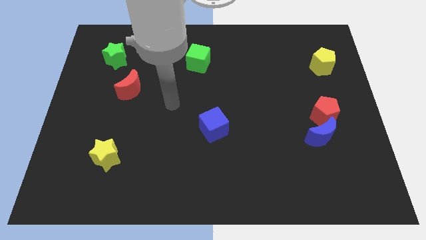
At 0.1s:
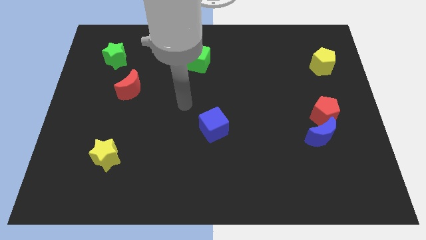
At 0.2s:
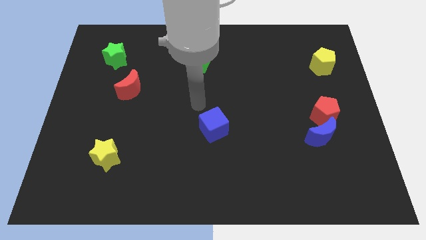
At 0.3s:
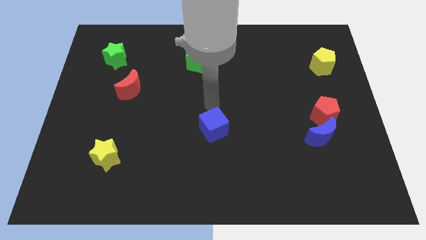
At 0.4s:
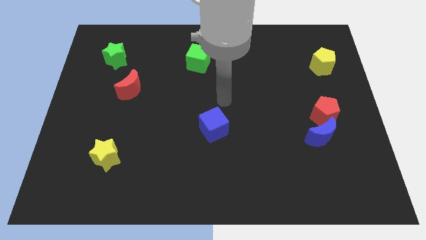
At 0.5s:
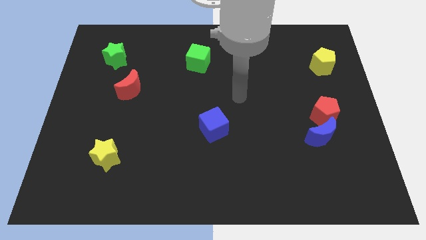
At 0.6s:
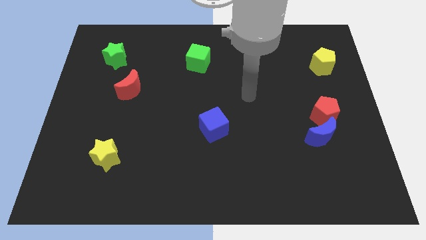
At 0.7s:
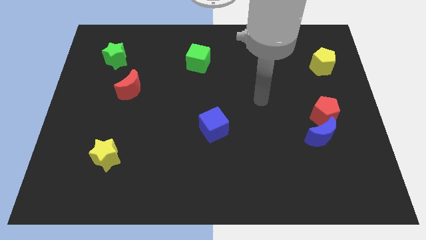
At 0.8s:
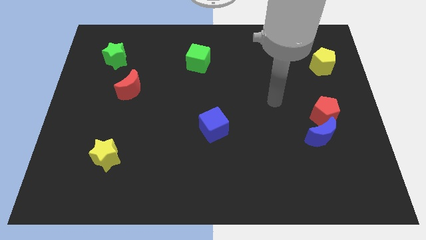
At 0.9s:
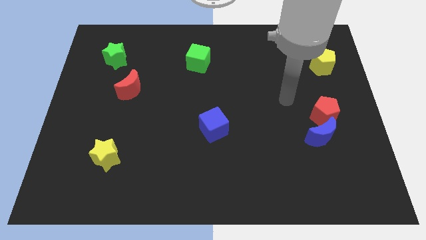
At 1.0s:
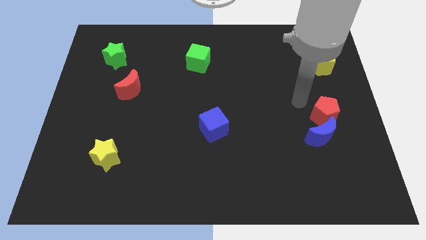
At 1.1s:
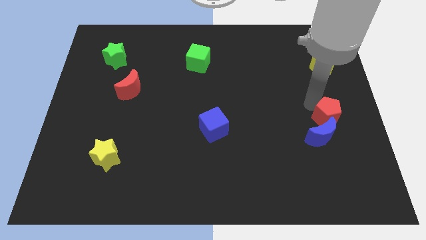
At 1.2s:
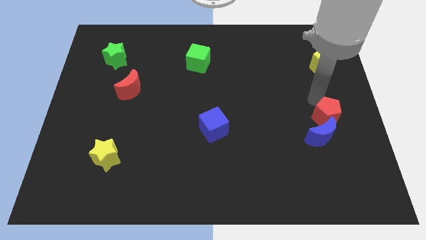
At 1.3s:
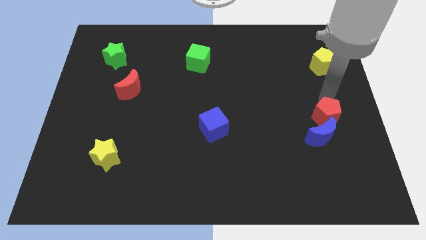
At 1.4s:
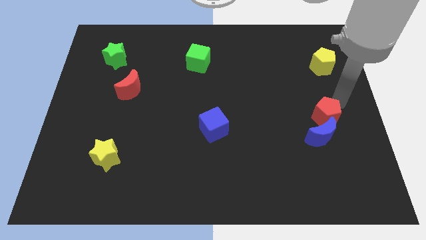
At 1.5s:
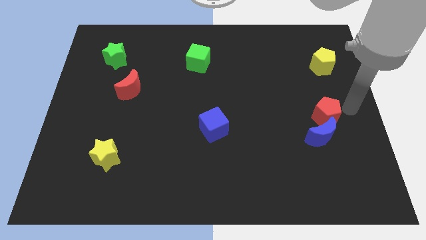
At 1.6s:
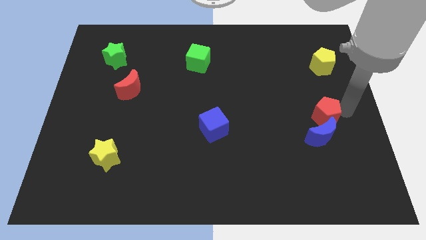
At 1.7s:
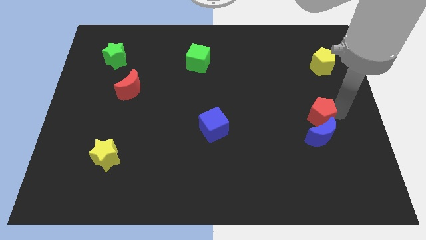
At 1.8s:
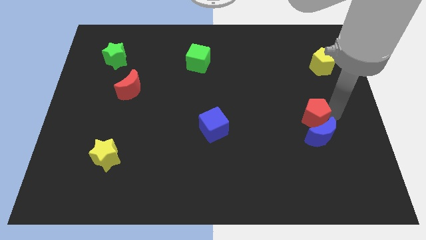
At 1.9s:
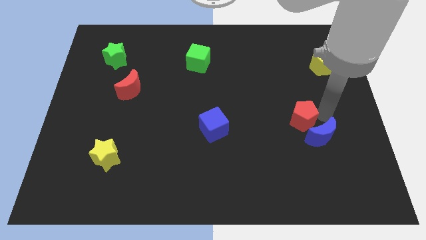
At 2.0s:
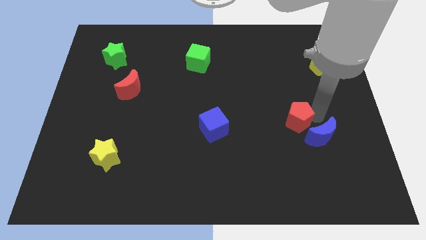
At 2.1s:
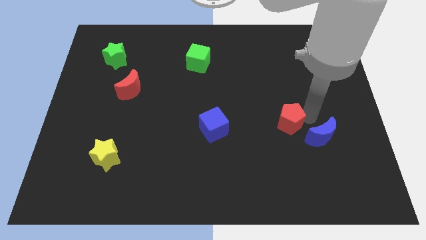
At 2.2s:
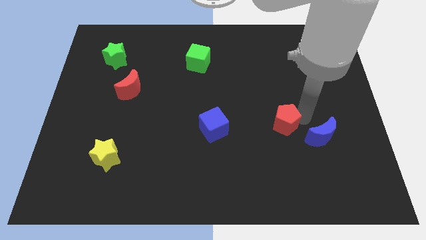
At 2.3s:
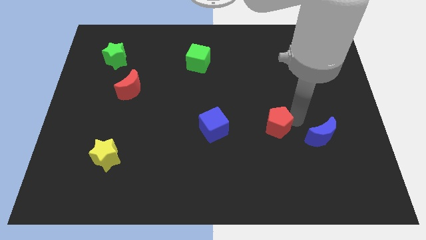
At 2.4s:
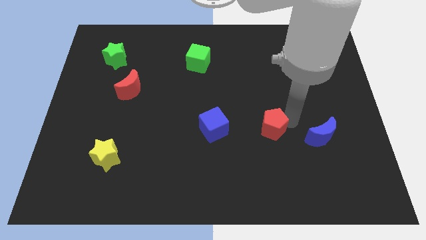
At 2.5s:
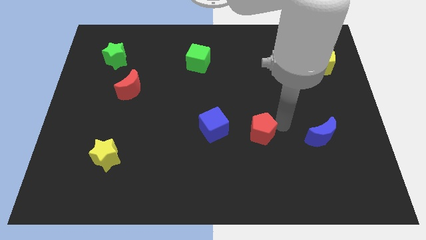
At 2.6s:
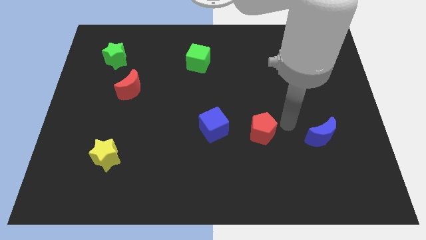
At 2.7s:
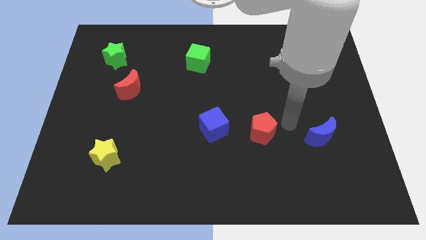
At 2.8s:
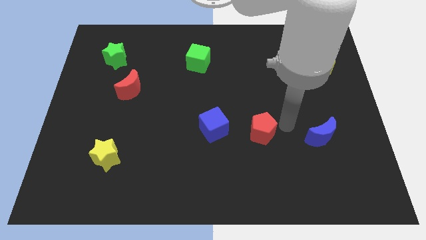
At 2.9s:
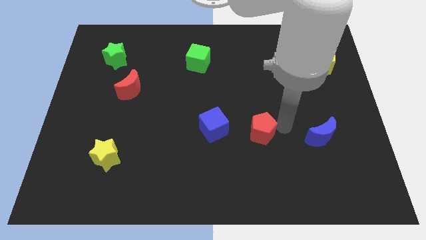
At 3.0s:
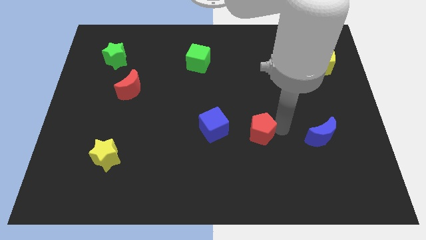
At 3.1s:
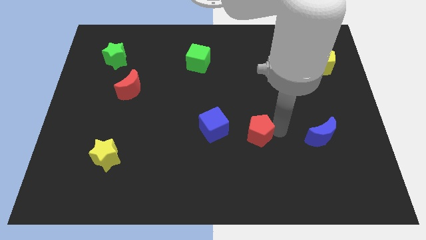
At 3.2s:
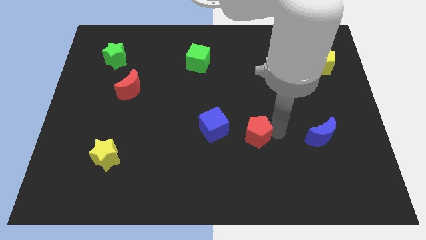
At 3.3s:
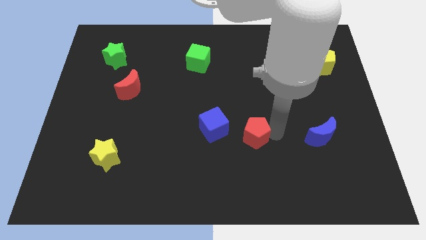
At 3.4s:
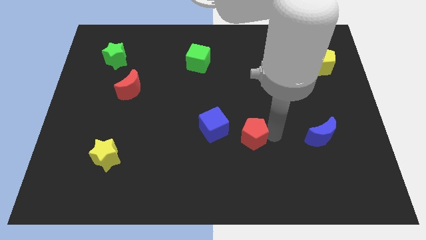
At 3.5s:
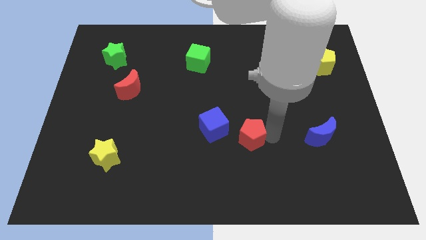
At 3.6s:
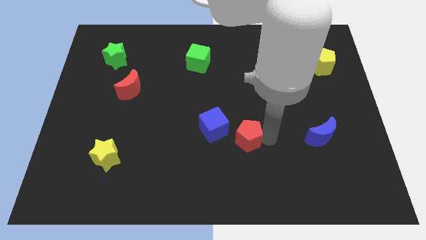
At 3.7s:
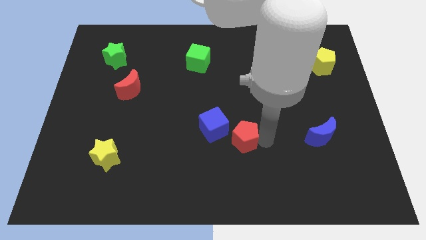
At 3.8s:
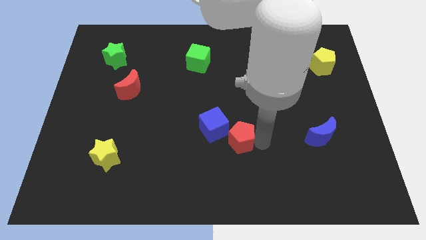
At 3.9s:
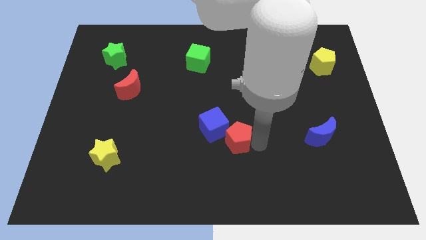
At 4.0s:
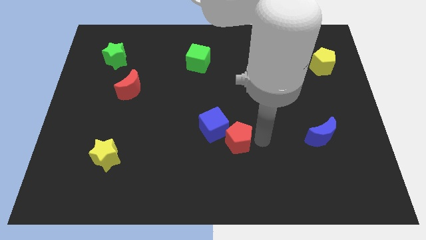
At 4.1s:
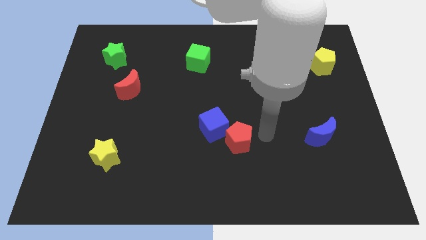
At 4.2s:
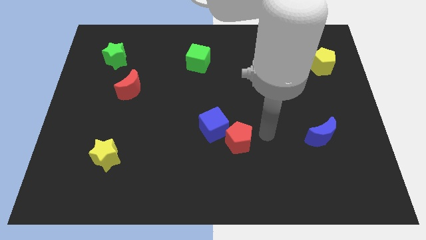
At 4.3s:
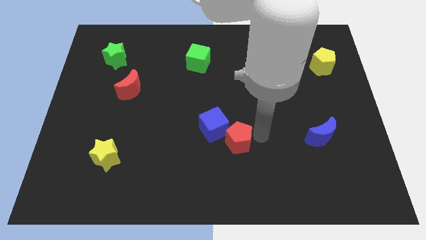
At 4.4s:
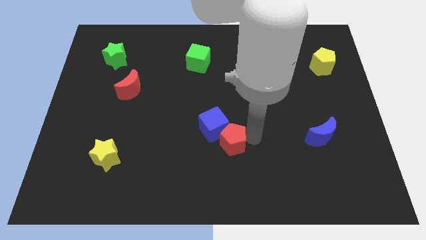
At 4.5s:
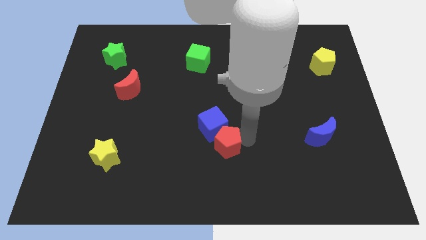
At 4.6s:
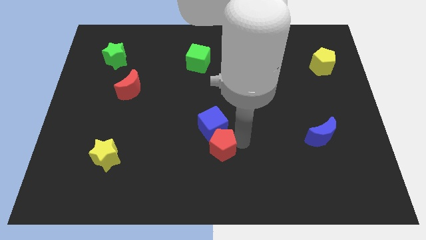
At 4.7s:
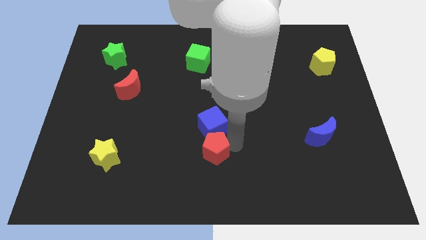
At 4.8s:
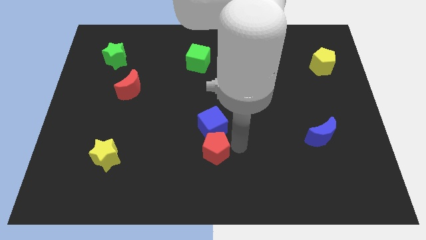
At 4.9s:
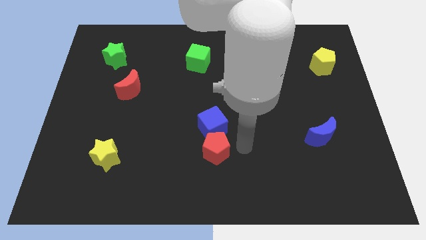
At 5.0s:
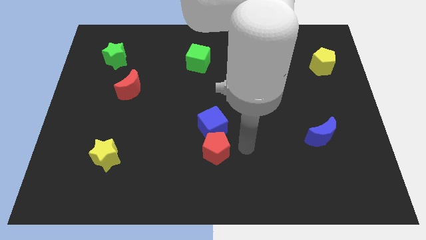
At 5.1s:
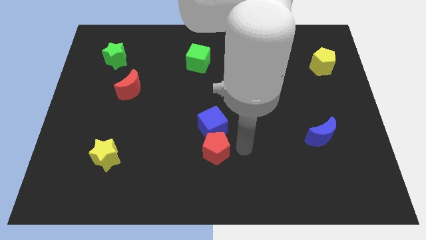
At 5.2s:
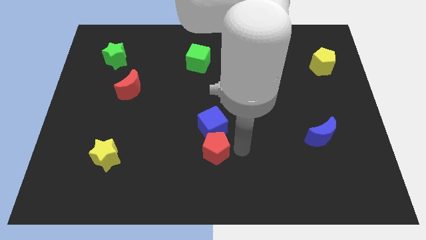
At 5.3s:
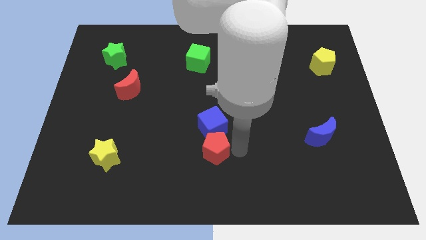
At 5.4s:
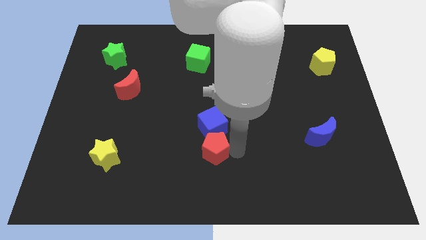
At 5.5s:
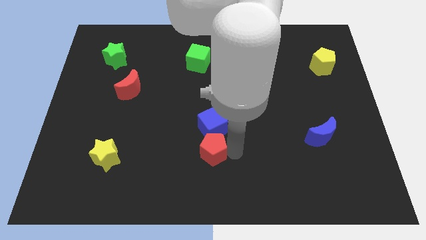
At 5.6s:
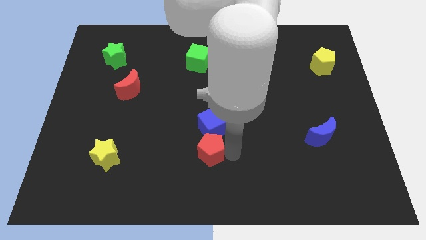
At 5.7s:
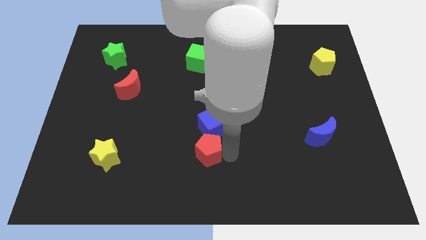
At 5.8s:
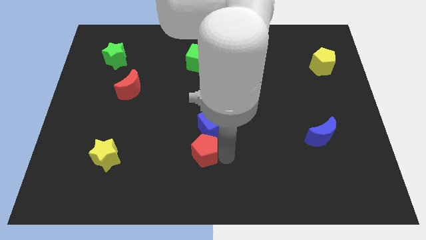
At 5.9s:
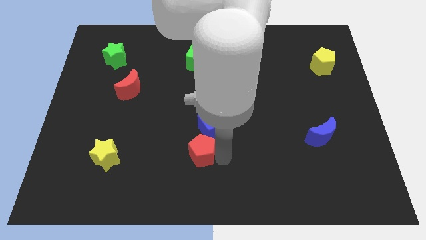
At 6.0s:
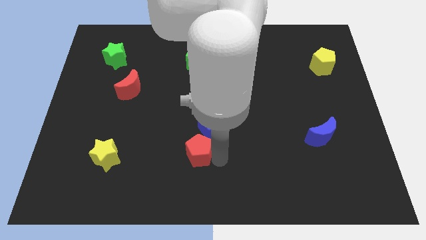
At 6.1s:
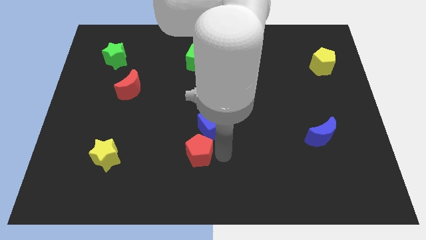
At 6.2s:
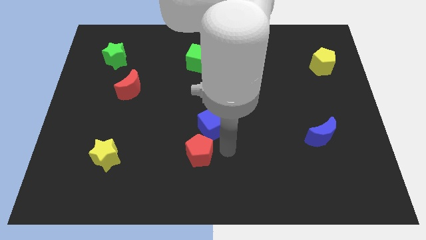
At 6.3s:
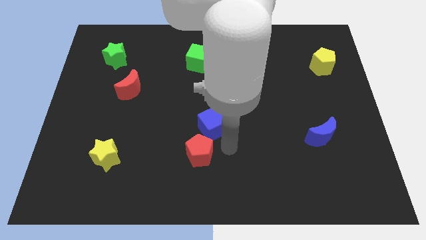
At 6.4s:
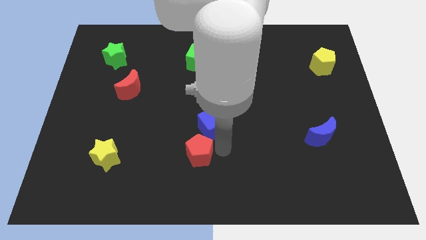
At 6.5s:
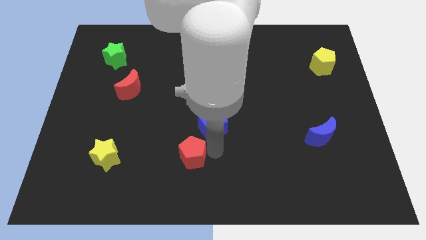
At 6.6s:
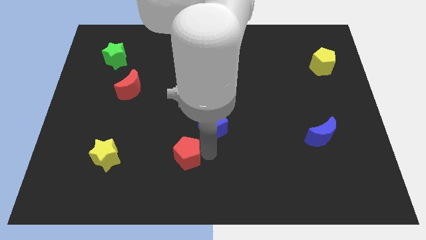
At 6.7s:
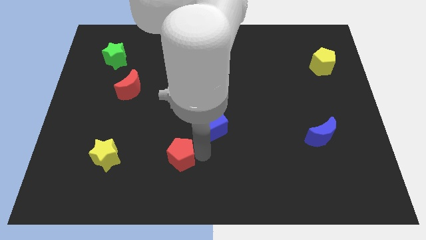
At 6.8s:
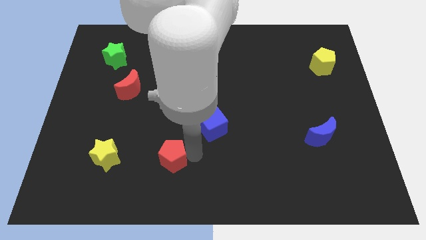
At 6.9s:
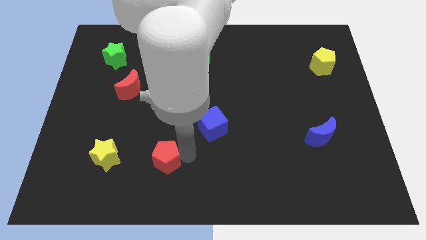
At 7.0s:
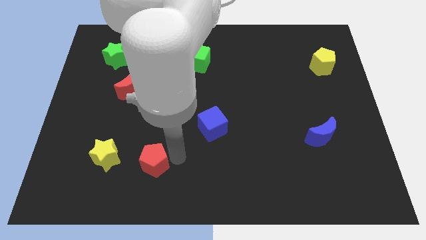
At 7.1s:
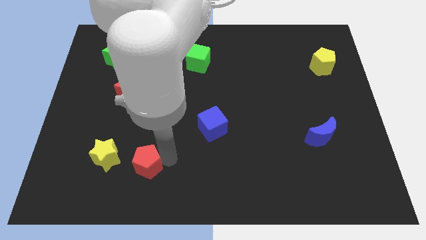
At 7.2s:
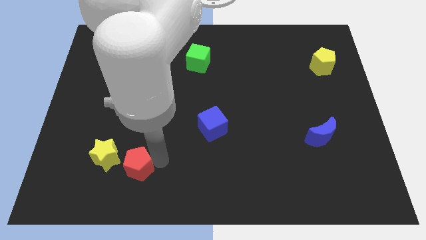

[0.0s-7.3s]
move the red pentagon to the bottom right of the yellow star
